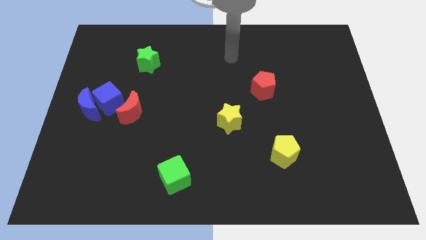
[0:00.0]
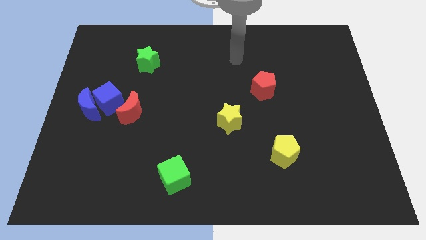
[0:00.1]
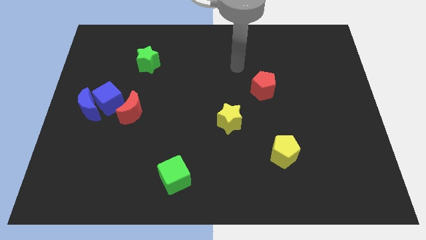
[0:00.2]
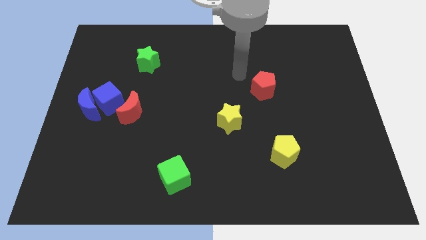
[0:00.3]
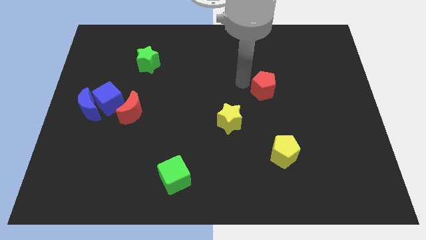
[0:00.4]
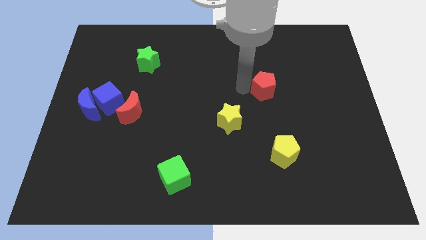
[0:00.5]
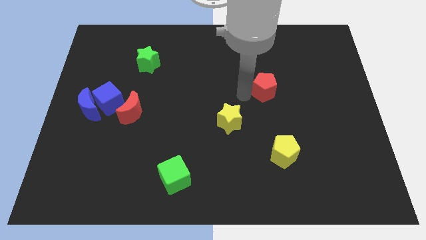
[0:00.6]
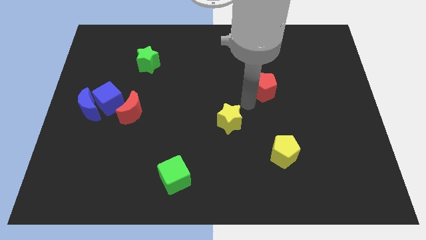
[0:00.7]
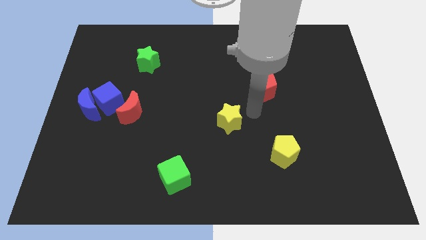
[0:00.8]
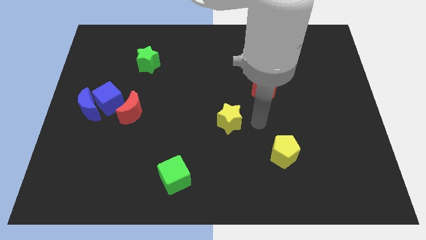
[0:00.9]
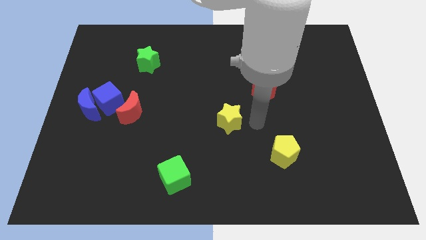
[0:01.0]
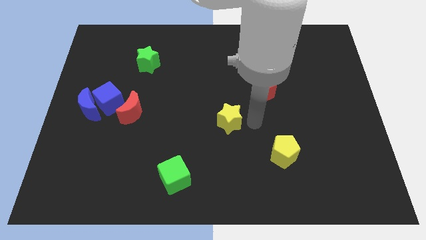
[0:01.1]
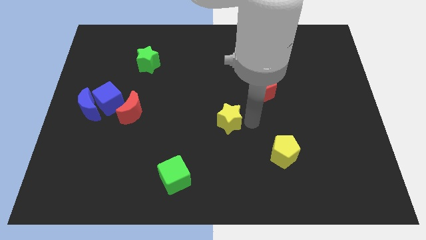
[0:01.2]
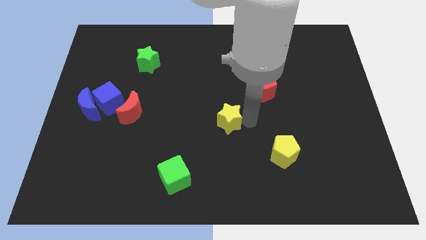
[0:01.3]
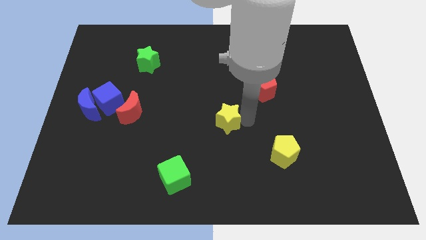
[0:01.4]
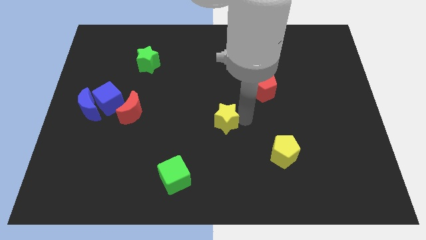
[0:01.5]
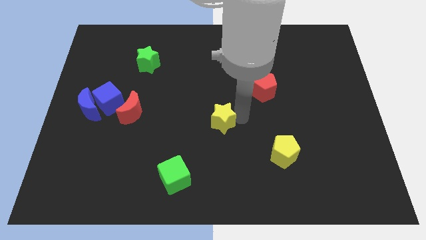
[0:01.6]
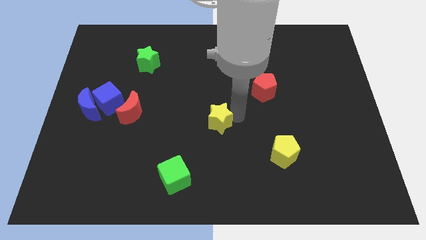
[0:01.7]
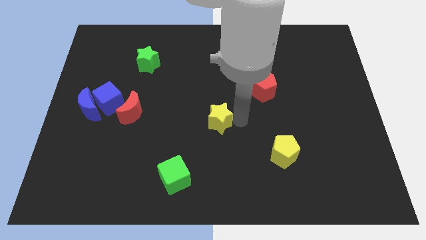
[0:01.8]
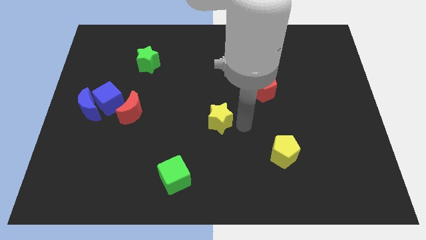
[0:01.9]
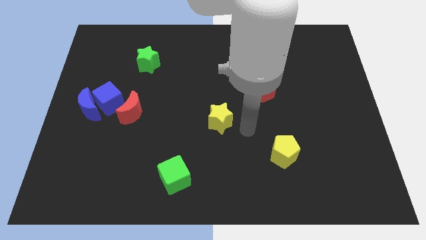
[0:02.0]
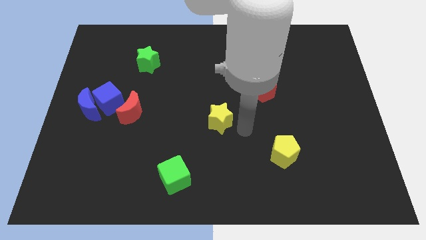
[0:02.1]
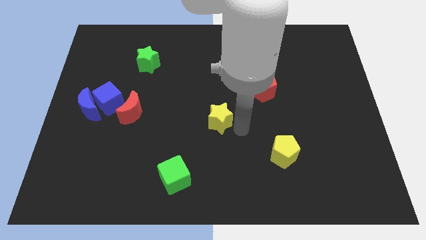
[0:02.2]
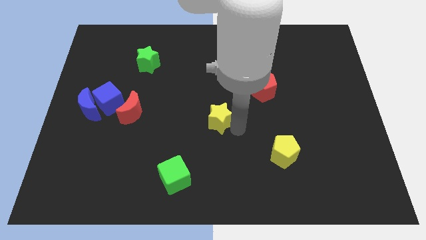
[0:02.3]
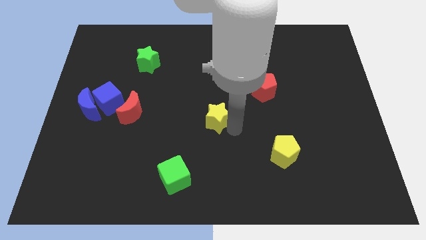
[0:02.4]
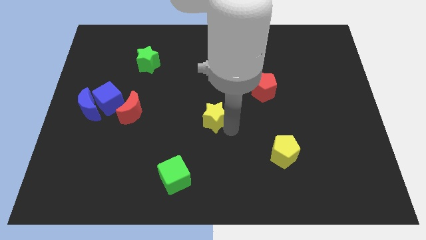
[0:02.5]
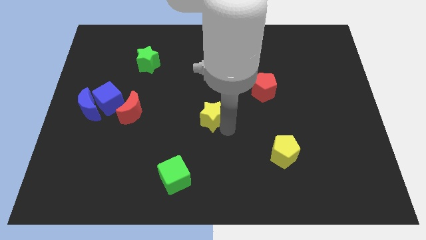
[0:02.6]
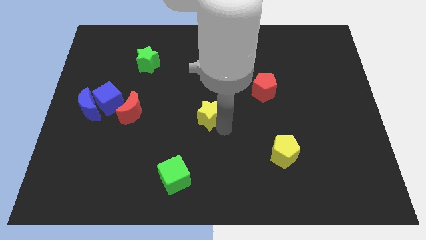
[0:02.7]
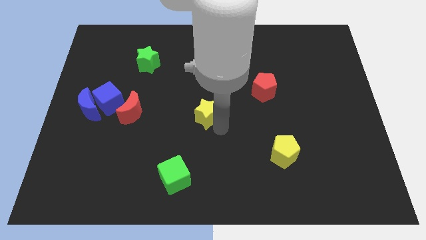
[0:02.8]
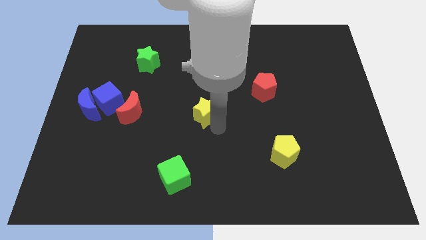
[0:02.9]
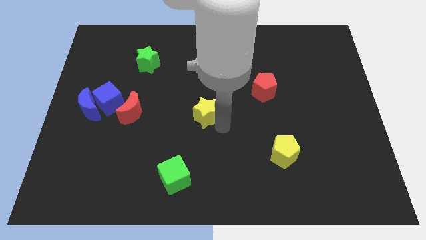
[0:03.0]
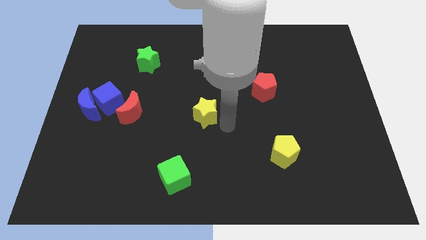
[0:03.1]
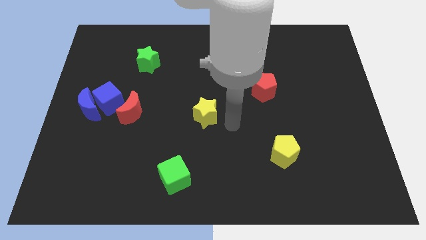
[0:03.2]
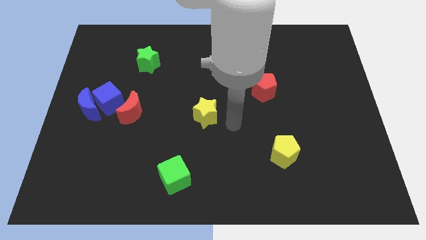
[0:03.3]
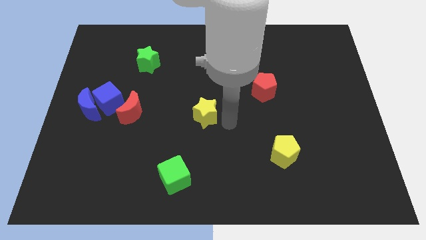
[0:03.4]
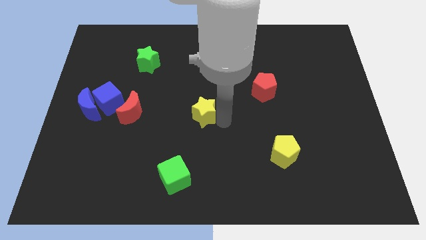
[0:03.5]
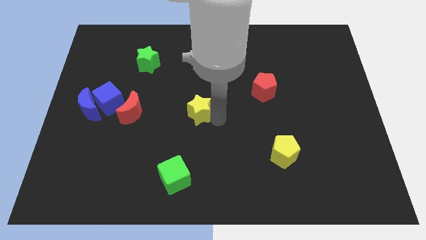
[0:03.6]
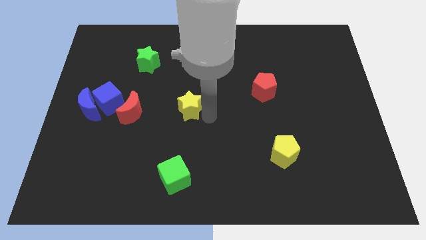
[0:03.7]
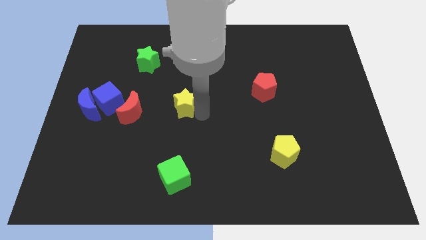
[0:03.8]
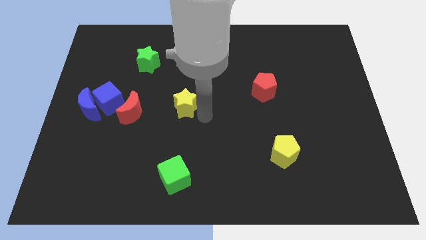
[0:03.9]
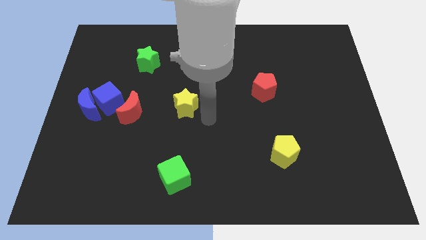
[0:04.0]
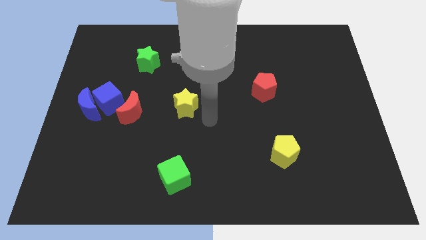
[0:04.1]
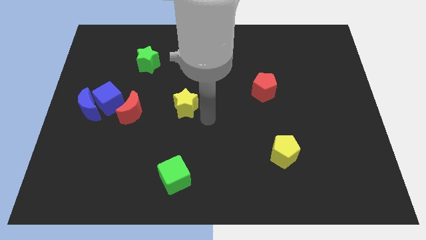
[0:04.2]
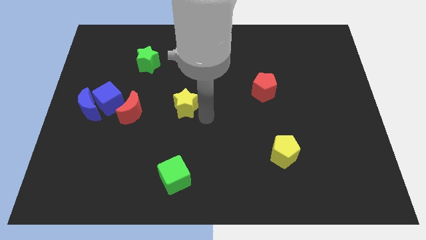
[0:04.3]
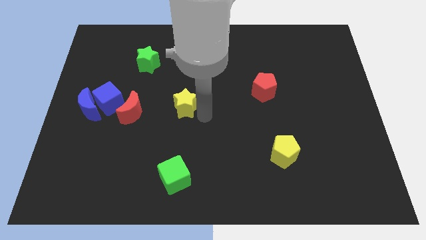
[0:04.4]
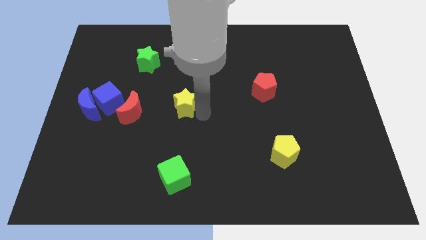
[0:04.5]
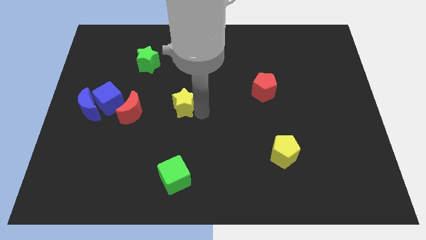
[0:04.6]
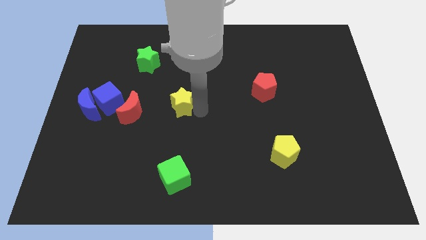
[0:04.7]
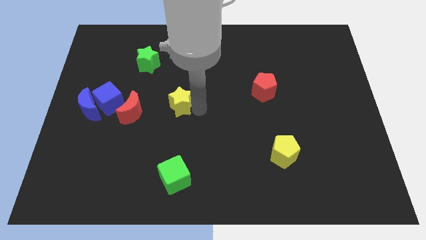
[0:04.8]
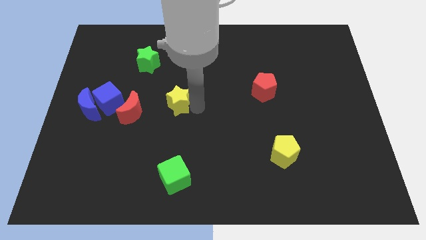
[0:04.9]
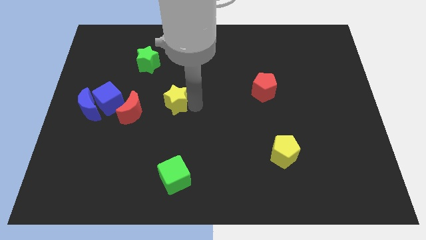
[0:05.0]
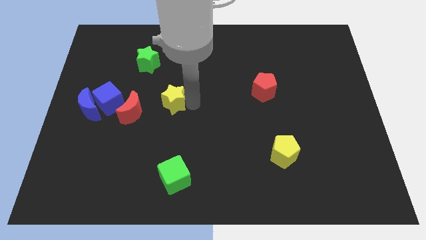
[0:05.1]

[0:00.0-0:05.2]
slide the yellow star to the top right side of the red moon

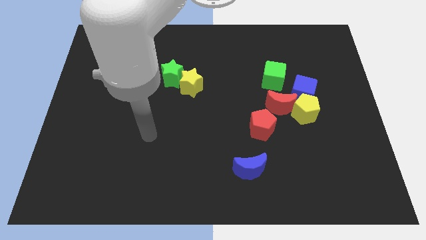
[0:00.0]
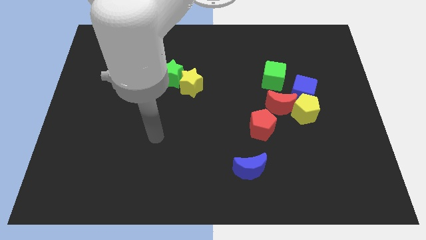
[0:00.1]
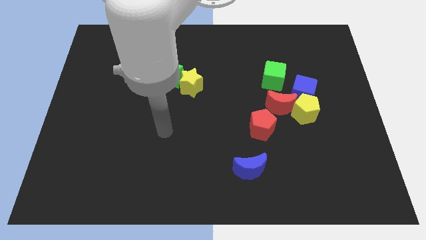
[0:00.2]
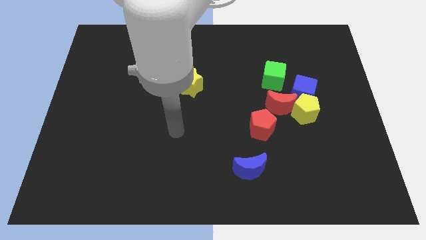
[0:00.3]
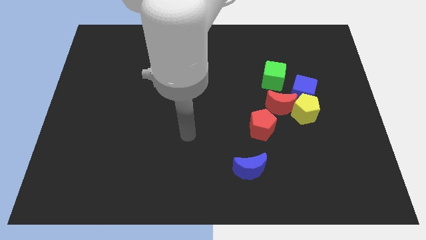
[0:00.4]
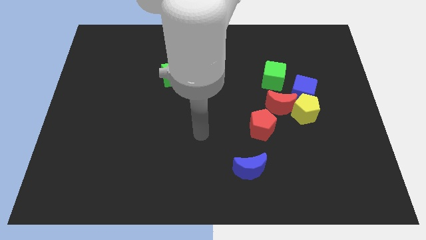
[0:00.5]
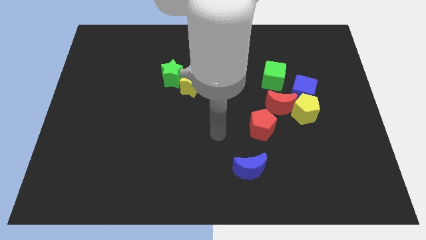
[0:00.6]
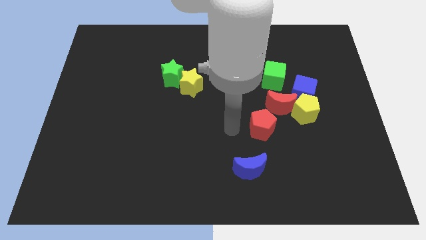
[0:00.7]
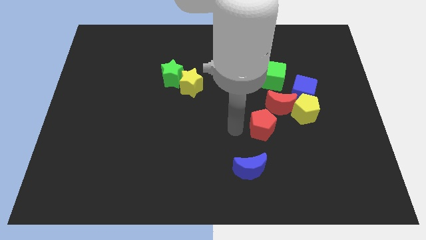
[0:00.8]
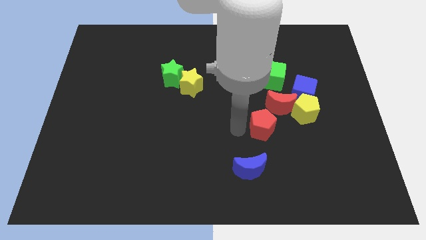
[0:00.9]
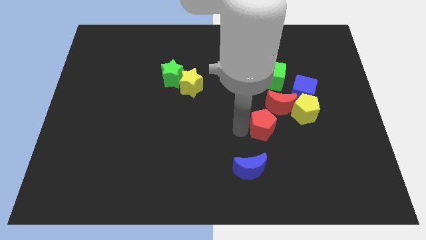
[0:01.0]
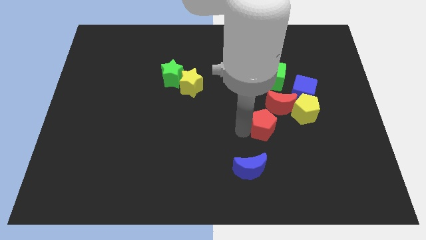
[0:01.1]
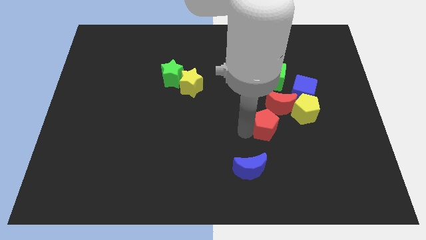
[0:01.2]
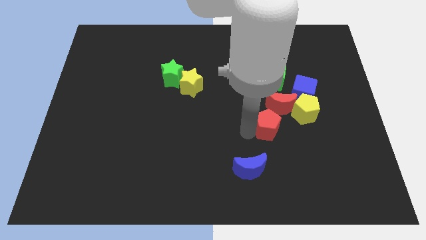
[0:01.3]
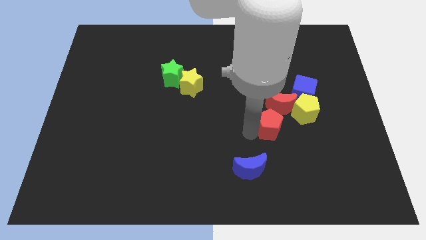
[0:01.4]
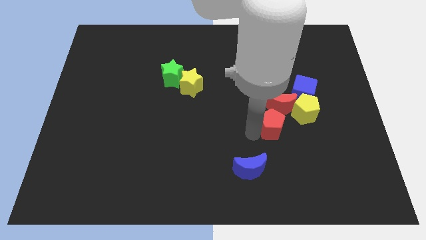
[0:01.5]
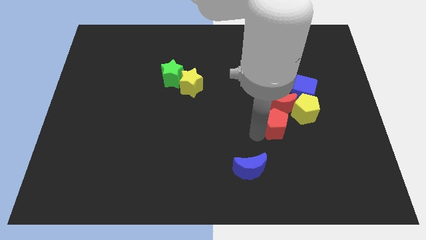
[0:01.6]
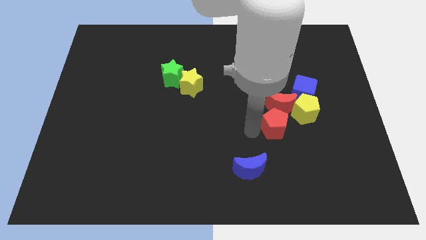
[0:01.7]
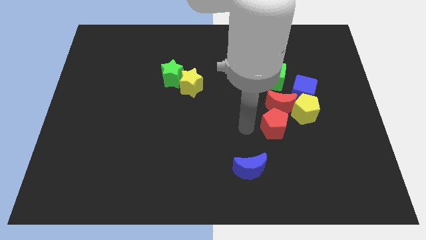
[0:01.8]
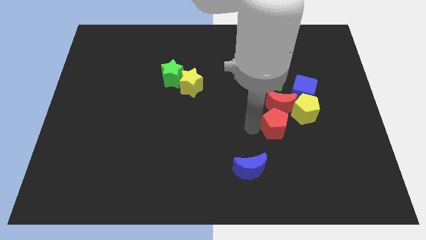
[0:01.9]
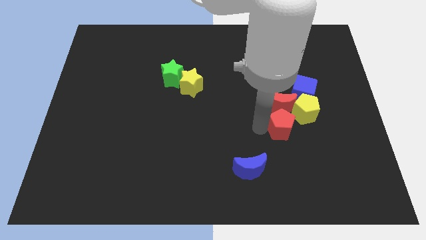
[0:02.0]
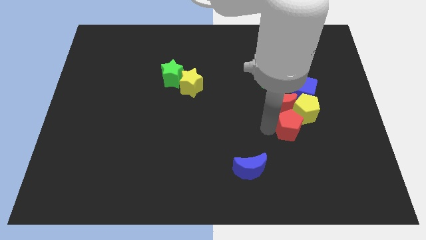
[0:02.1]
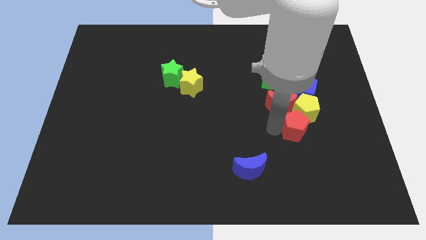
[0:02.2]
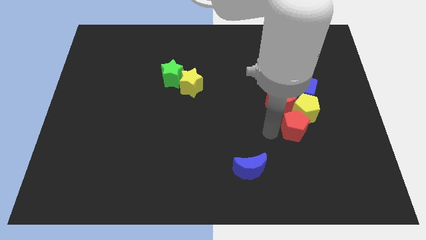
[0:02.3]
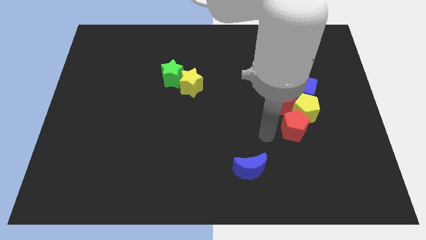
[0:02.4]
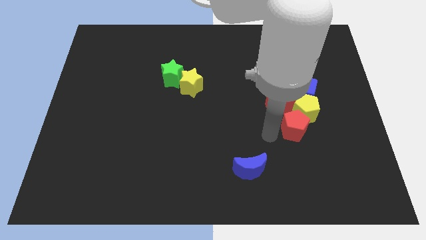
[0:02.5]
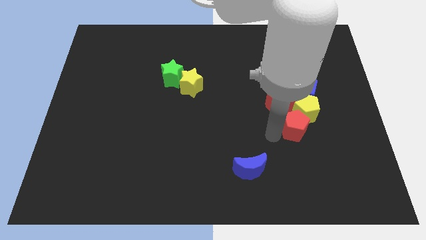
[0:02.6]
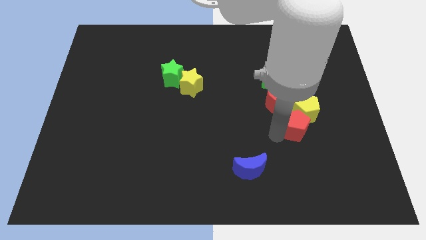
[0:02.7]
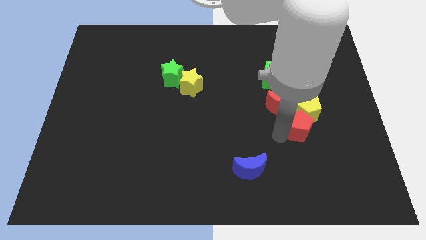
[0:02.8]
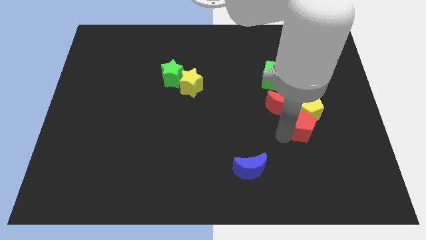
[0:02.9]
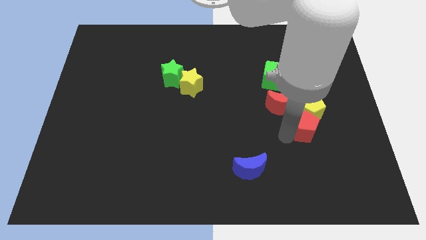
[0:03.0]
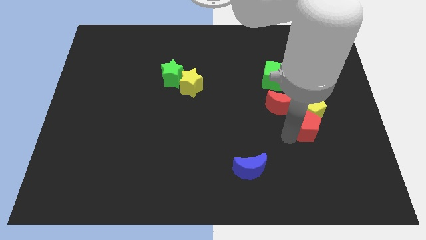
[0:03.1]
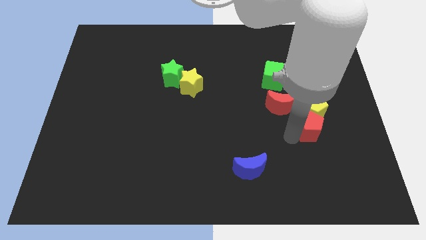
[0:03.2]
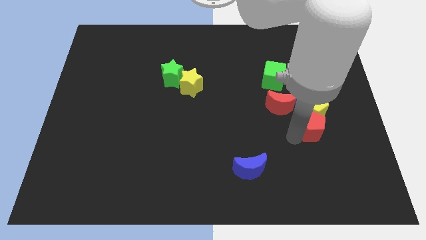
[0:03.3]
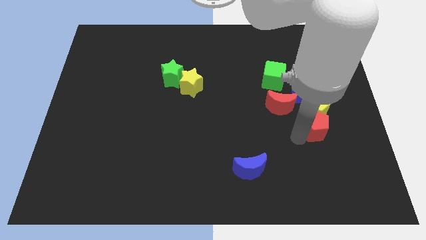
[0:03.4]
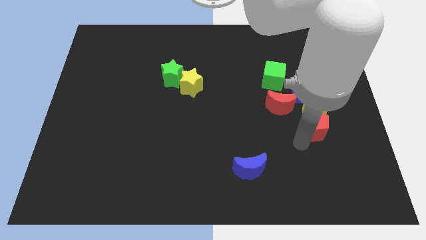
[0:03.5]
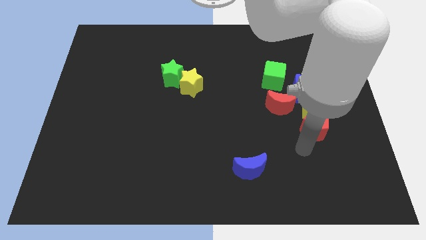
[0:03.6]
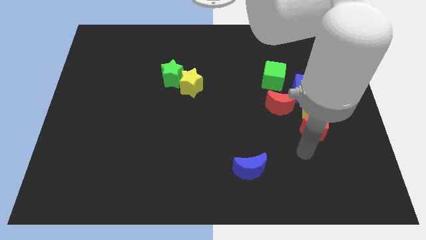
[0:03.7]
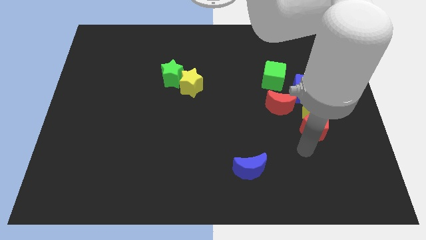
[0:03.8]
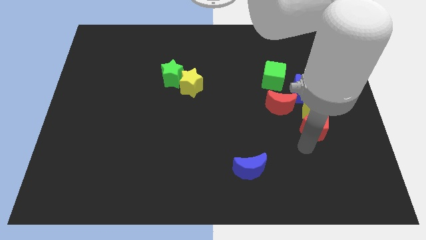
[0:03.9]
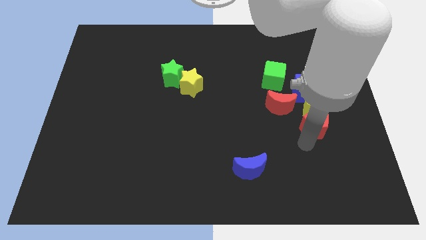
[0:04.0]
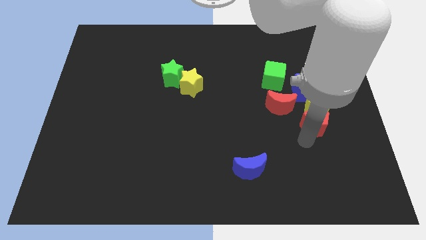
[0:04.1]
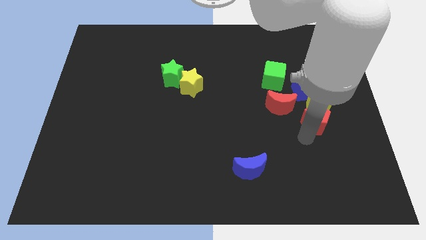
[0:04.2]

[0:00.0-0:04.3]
move the red pentagon to the right of the red moon
